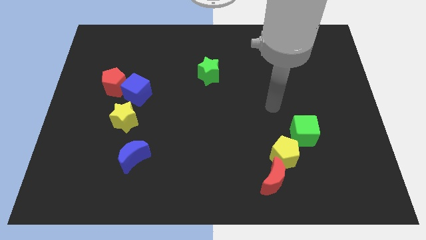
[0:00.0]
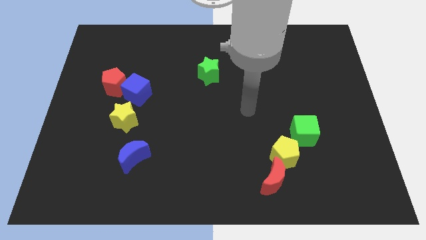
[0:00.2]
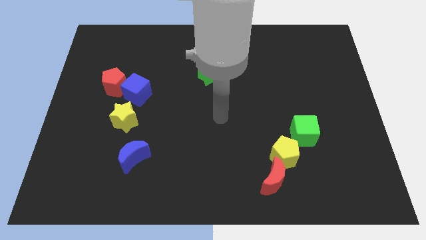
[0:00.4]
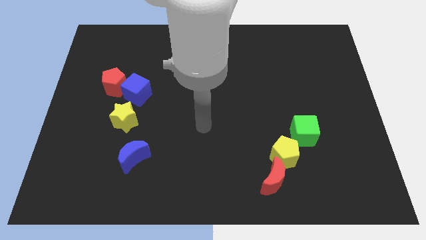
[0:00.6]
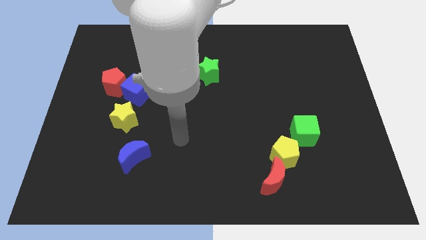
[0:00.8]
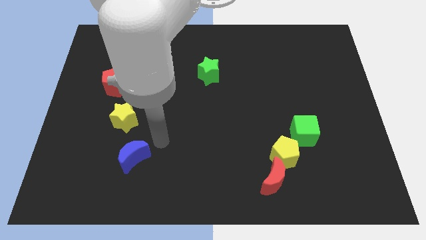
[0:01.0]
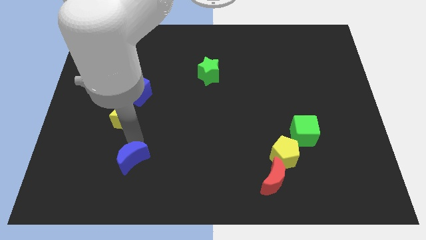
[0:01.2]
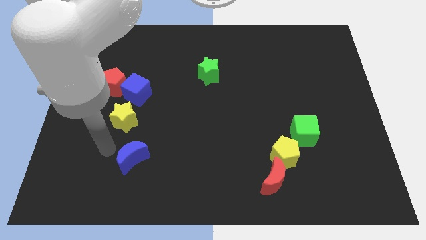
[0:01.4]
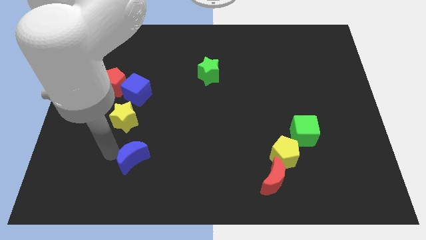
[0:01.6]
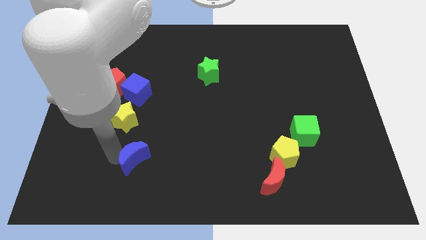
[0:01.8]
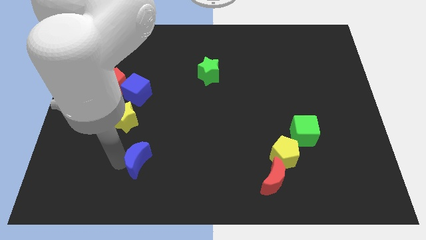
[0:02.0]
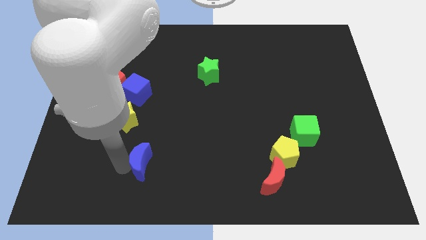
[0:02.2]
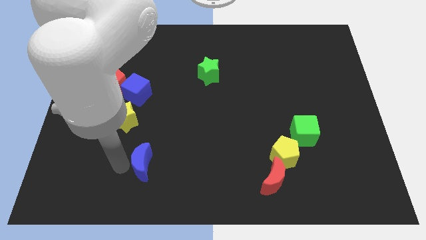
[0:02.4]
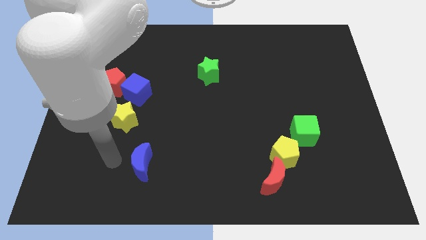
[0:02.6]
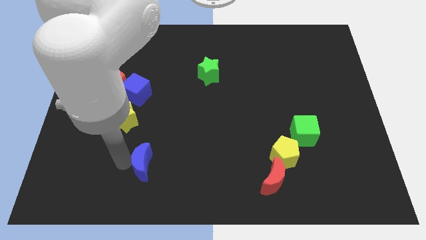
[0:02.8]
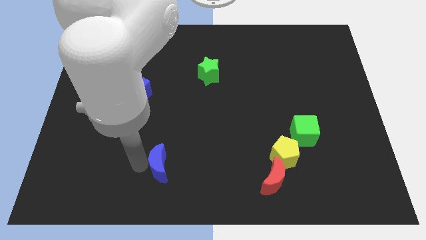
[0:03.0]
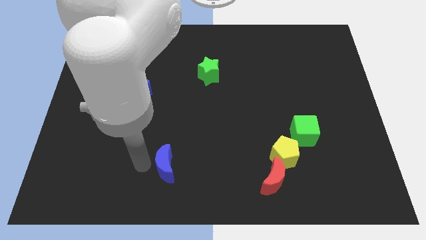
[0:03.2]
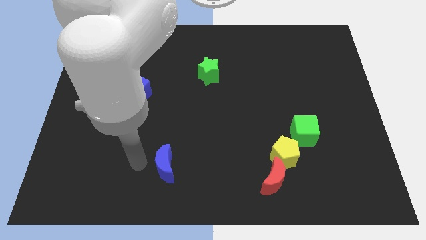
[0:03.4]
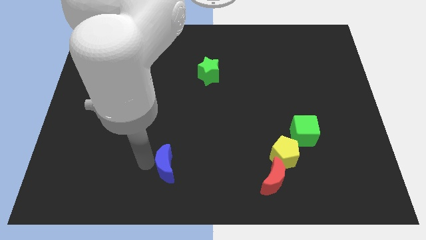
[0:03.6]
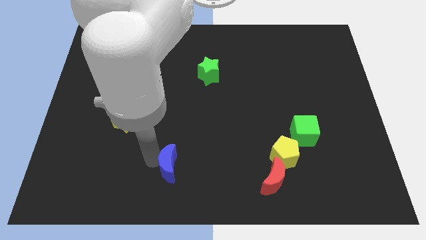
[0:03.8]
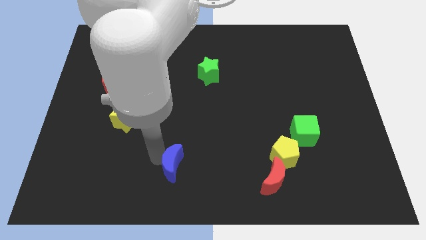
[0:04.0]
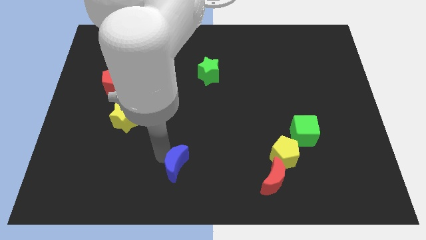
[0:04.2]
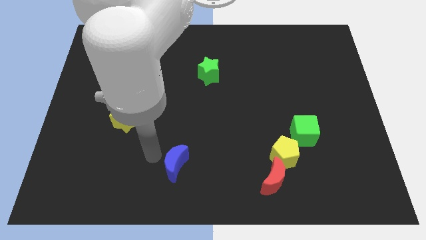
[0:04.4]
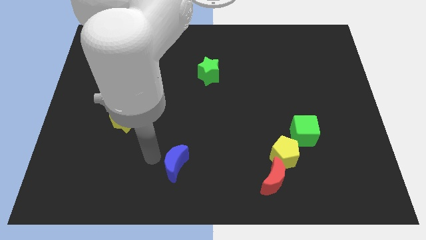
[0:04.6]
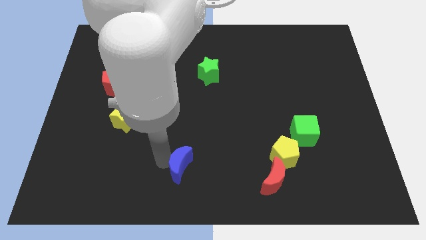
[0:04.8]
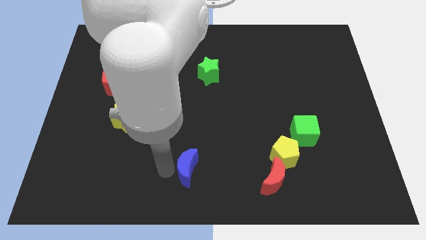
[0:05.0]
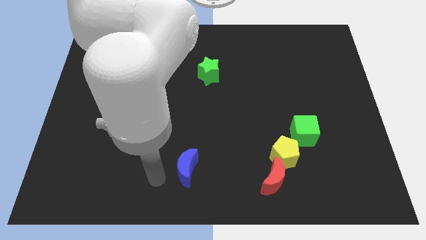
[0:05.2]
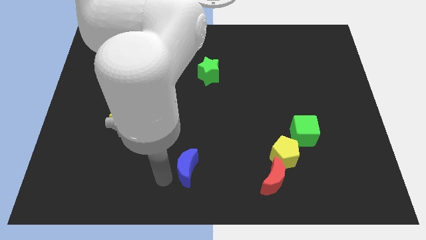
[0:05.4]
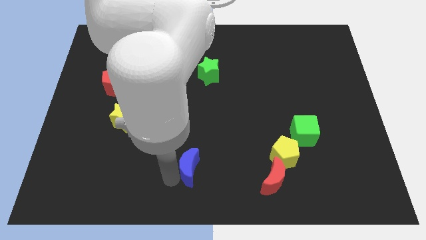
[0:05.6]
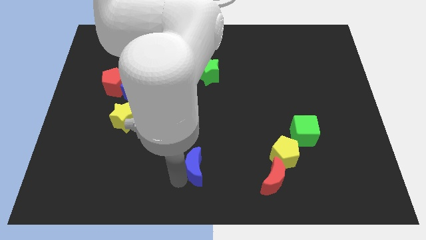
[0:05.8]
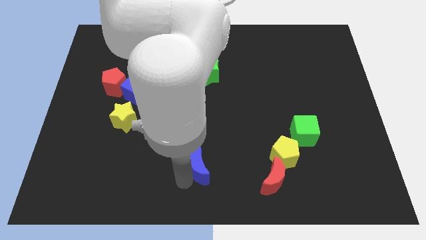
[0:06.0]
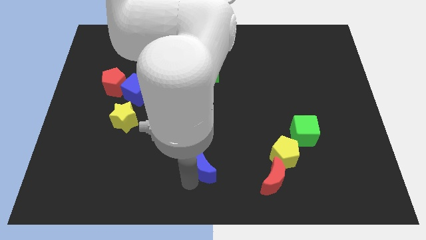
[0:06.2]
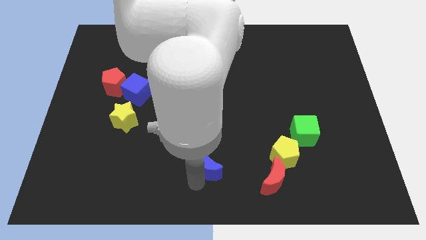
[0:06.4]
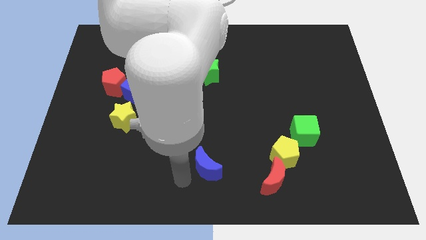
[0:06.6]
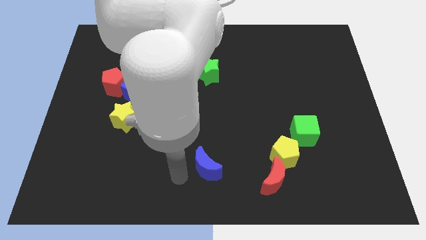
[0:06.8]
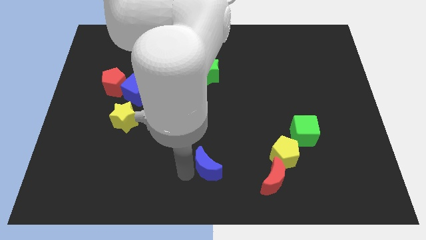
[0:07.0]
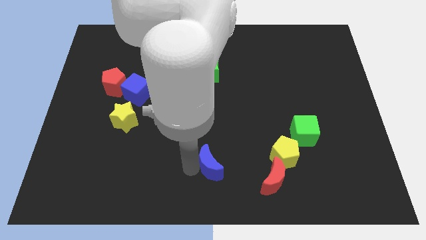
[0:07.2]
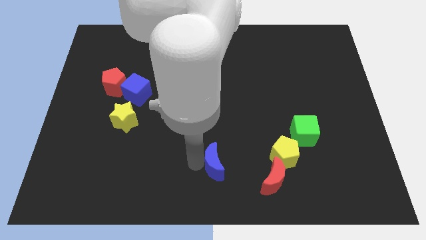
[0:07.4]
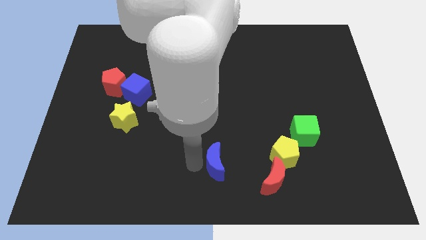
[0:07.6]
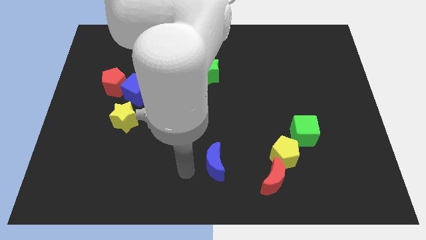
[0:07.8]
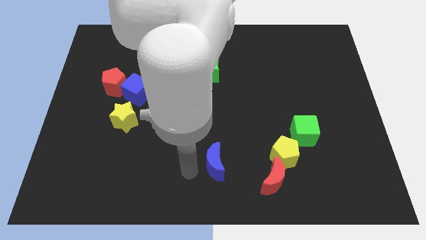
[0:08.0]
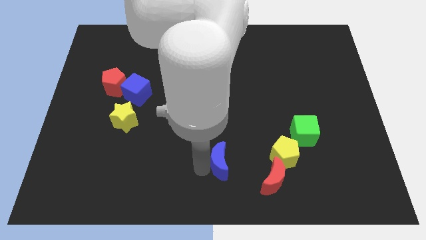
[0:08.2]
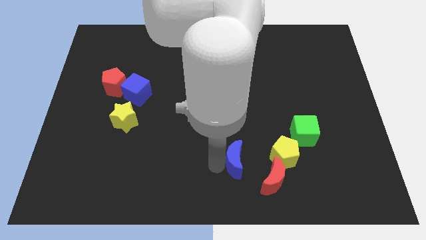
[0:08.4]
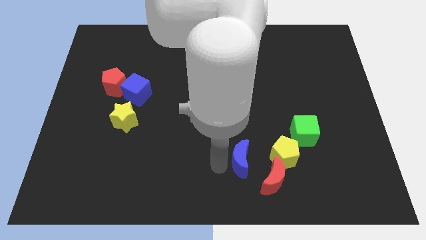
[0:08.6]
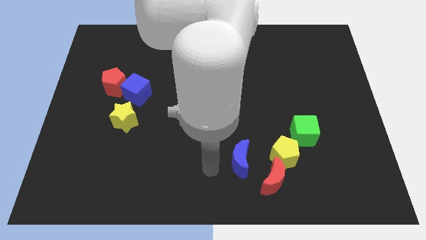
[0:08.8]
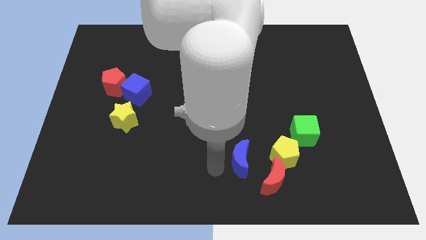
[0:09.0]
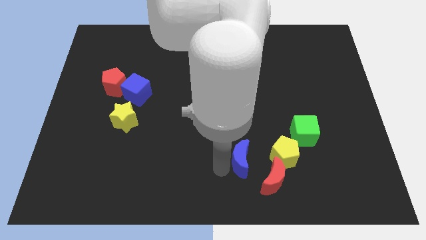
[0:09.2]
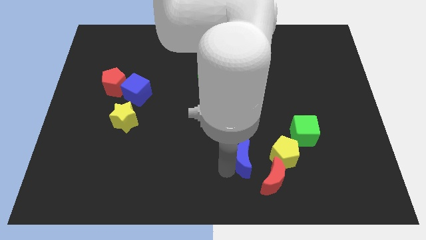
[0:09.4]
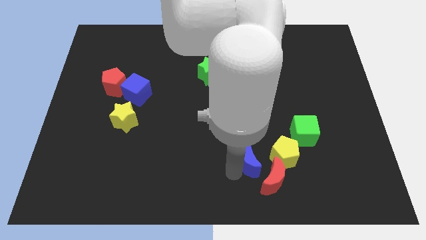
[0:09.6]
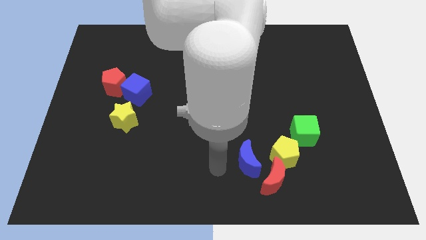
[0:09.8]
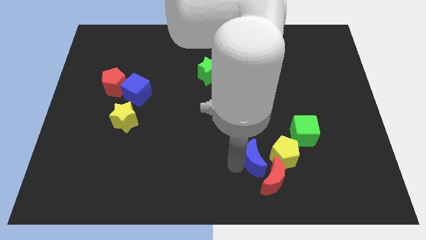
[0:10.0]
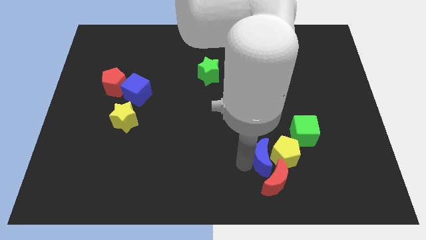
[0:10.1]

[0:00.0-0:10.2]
push the blue moon next to the yellow pentagon
